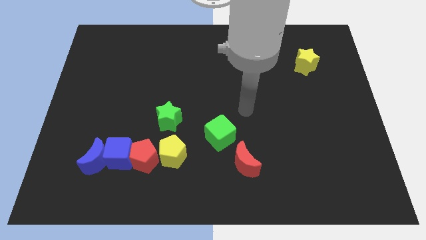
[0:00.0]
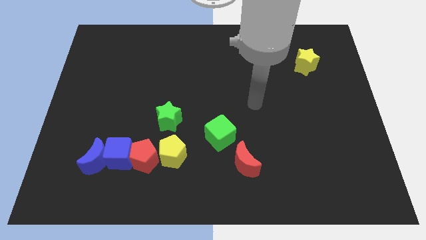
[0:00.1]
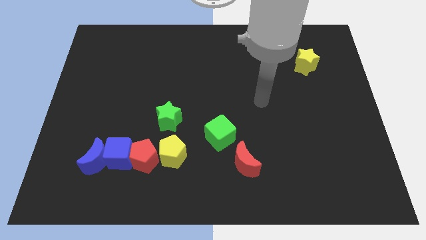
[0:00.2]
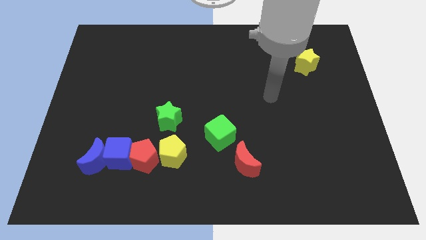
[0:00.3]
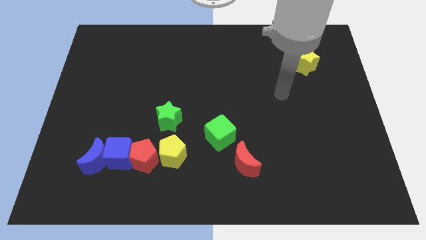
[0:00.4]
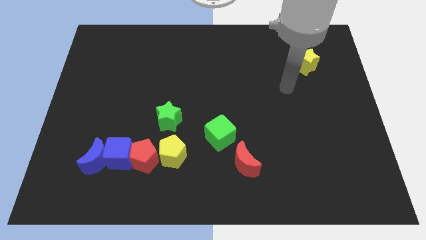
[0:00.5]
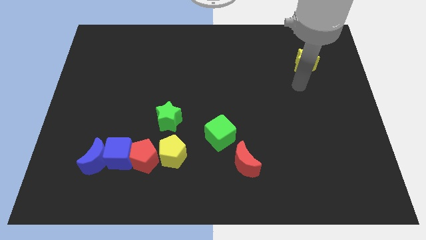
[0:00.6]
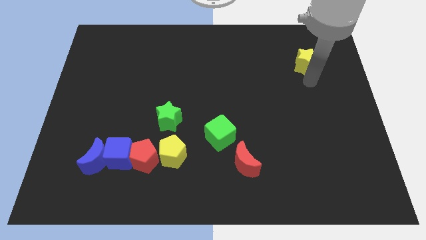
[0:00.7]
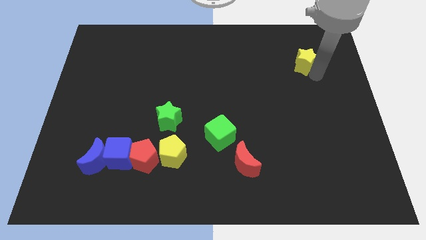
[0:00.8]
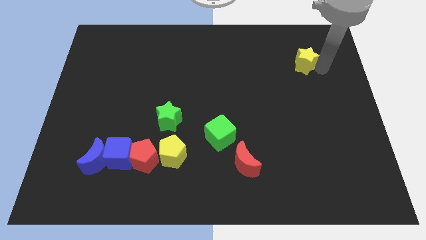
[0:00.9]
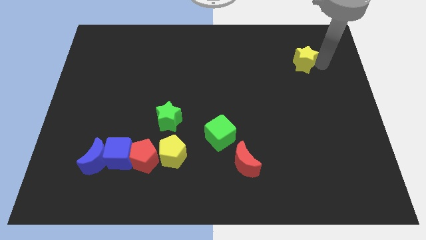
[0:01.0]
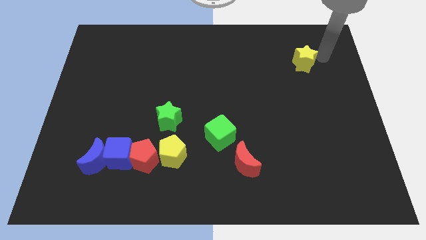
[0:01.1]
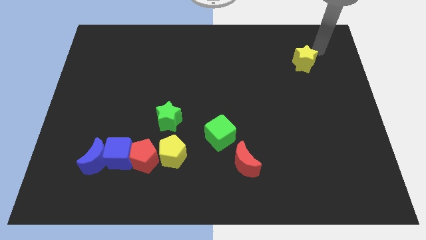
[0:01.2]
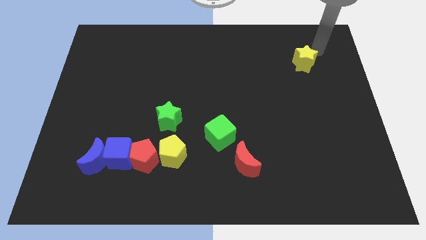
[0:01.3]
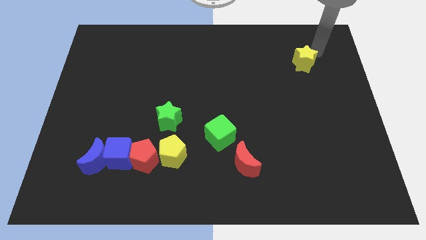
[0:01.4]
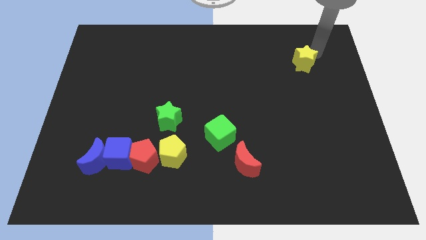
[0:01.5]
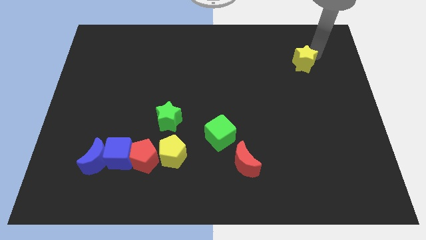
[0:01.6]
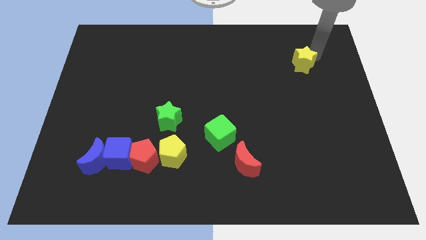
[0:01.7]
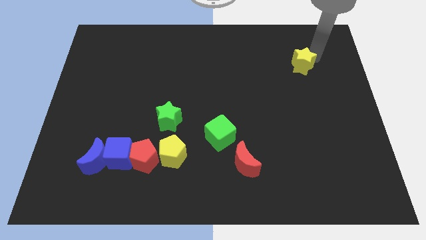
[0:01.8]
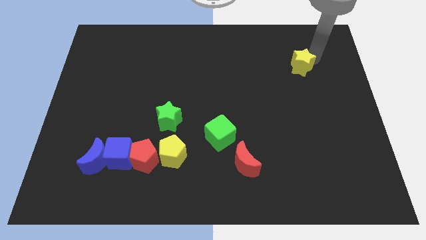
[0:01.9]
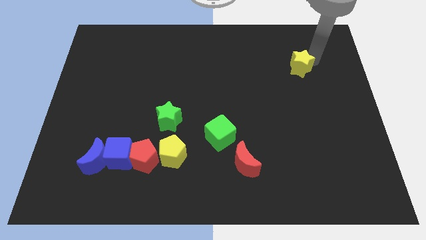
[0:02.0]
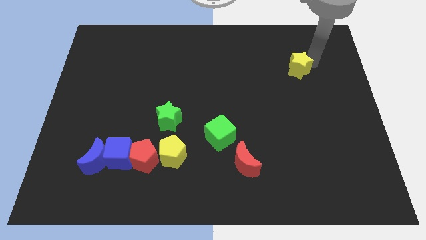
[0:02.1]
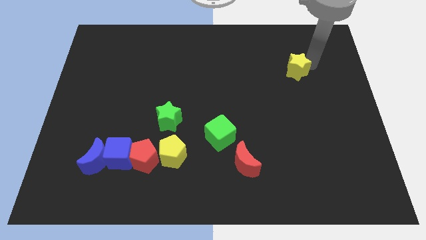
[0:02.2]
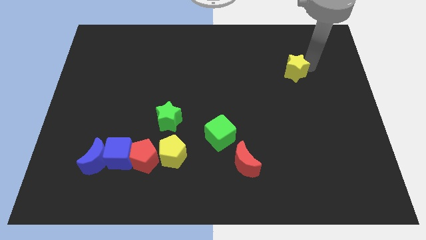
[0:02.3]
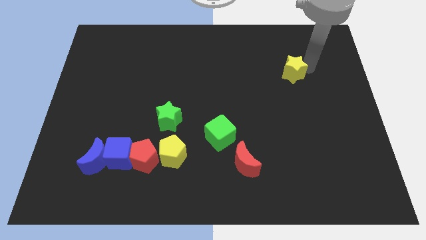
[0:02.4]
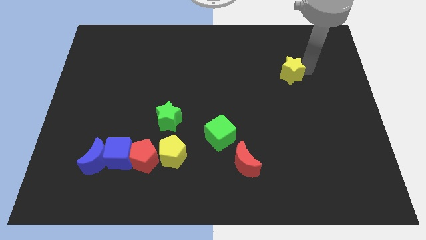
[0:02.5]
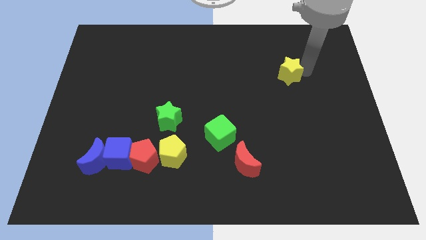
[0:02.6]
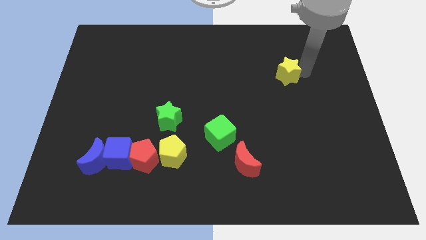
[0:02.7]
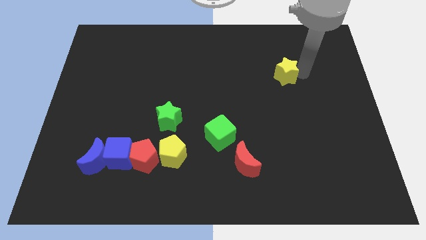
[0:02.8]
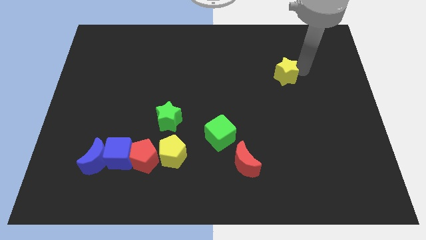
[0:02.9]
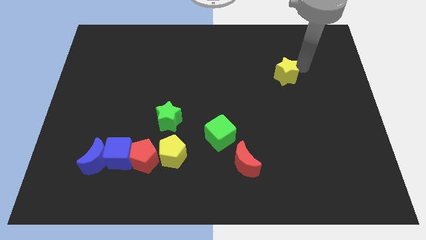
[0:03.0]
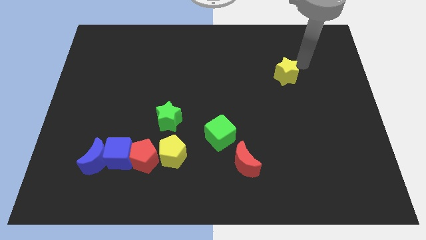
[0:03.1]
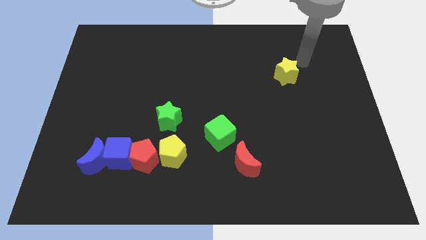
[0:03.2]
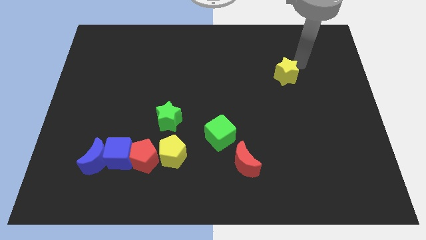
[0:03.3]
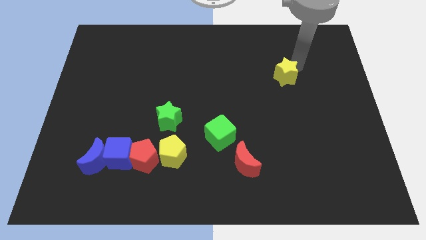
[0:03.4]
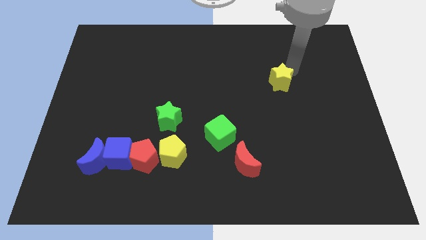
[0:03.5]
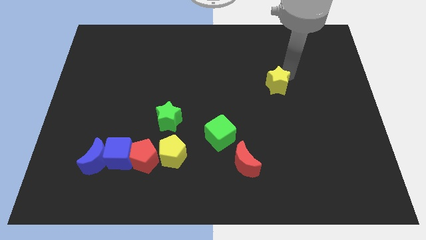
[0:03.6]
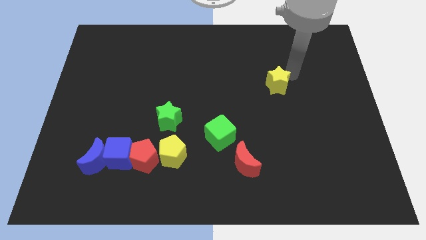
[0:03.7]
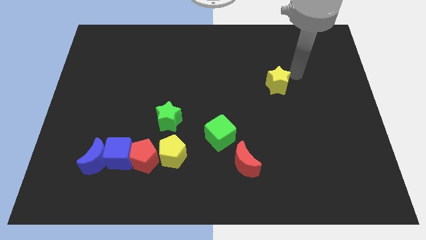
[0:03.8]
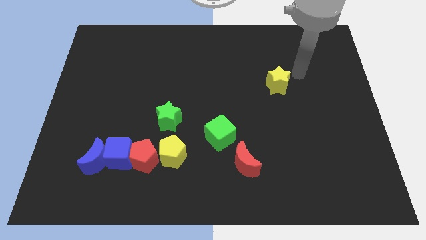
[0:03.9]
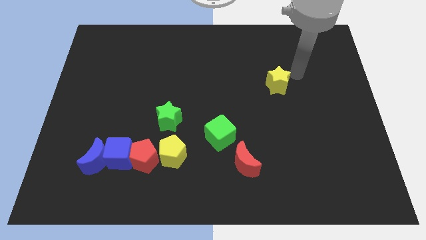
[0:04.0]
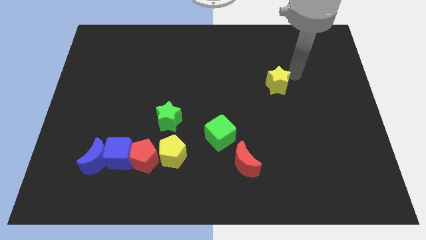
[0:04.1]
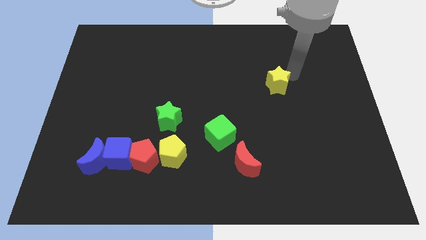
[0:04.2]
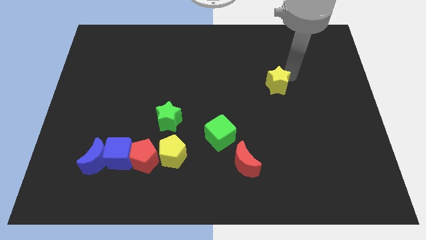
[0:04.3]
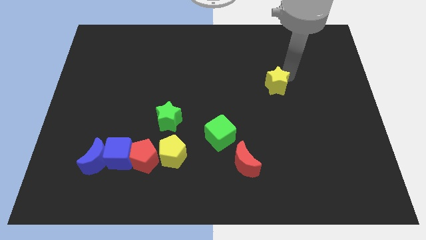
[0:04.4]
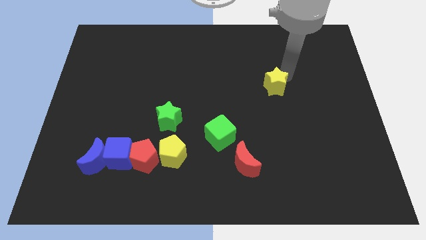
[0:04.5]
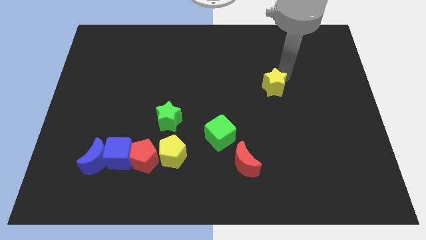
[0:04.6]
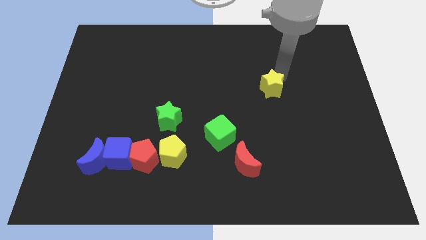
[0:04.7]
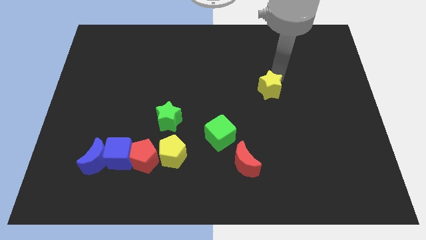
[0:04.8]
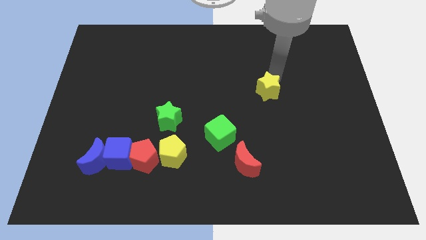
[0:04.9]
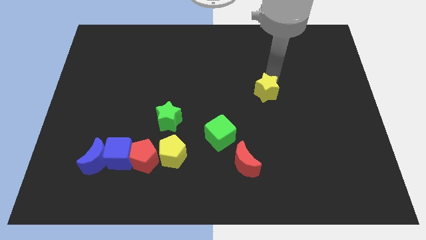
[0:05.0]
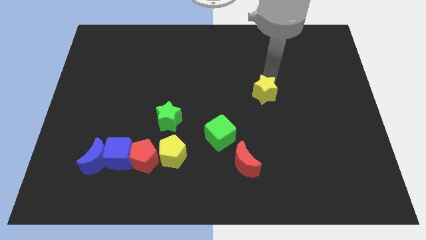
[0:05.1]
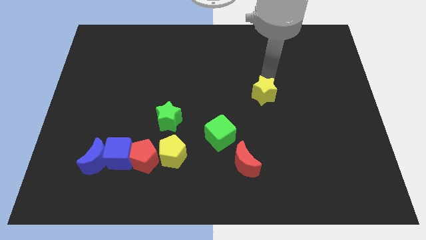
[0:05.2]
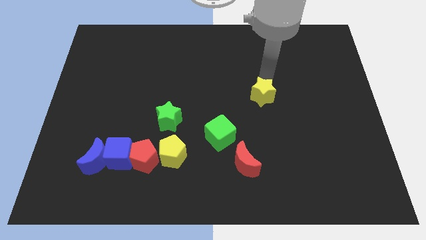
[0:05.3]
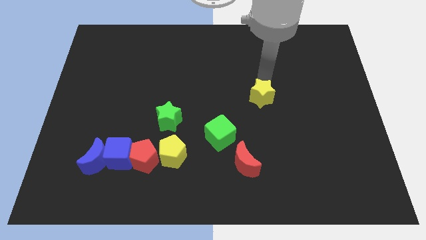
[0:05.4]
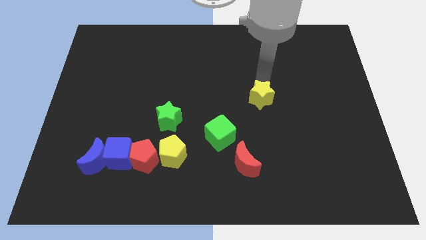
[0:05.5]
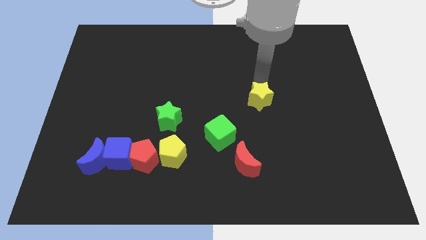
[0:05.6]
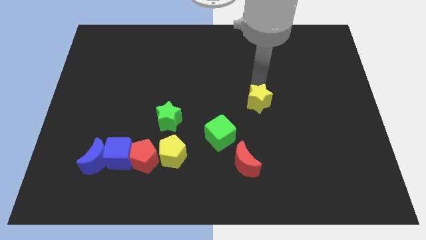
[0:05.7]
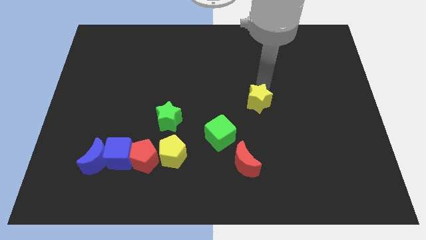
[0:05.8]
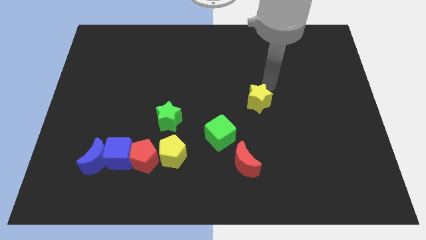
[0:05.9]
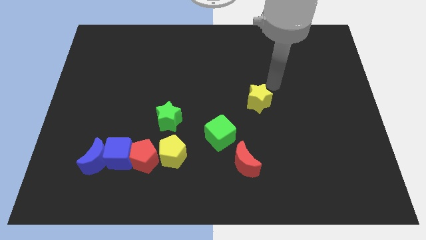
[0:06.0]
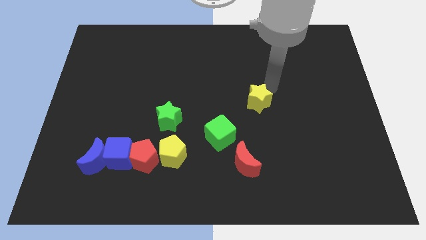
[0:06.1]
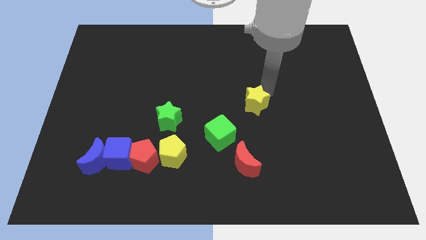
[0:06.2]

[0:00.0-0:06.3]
move the yellow star to the top right of the green cube

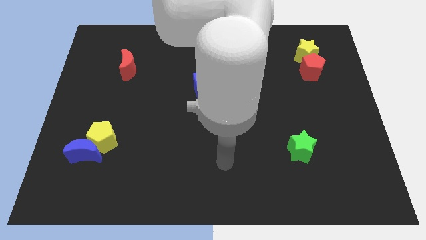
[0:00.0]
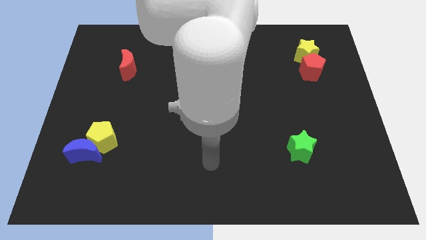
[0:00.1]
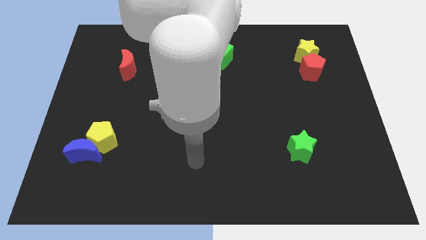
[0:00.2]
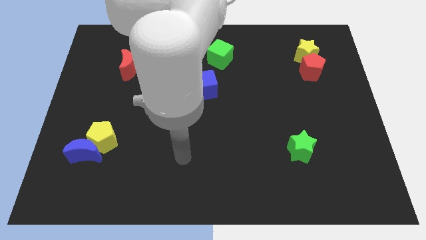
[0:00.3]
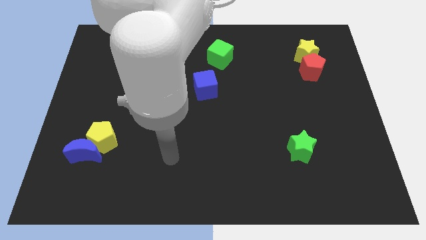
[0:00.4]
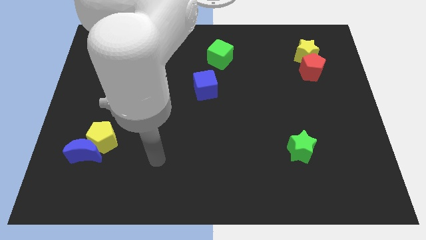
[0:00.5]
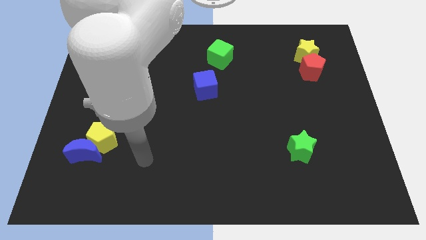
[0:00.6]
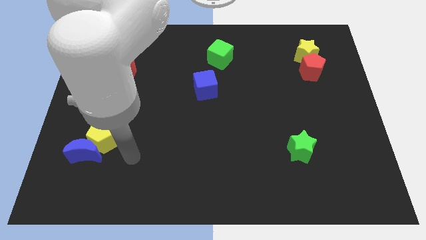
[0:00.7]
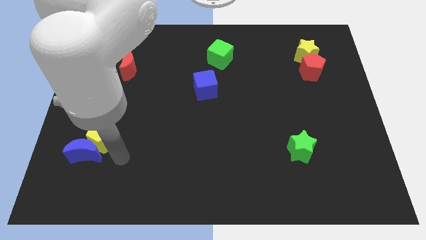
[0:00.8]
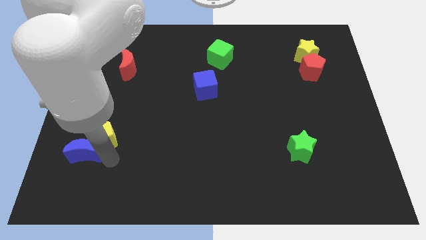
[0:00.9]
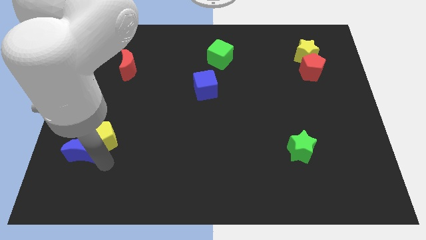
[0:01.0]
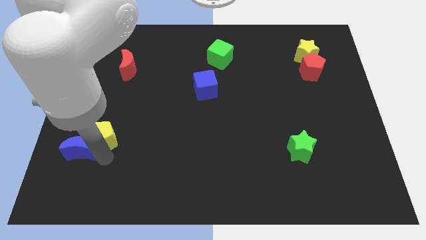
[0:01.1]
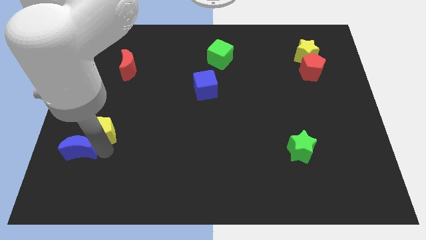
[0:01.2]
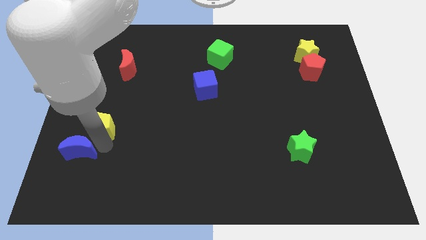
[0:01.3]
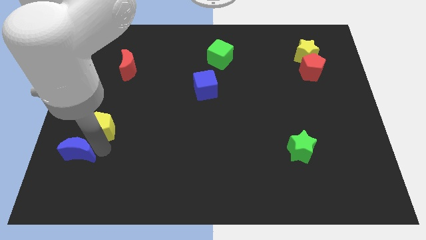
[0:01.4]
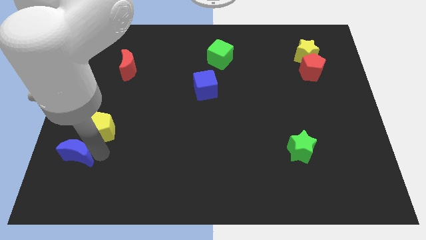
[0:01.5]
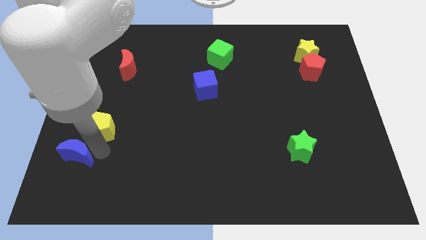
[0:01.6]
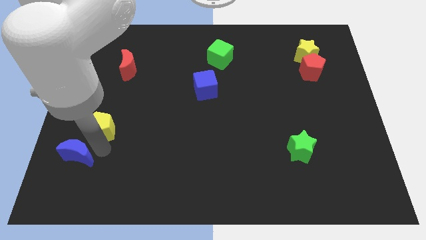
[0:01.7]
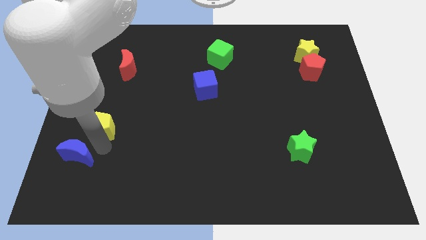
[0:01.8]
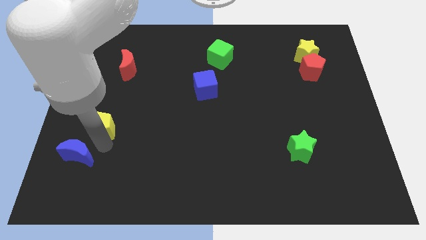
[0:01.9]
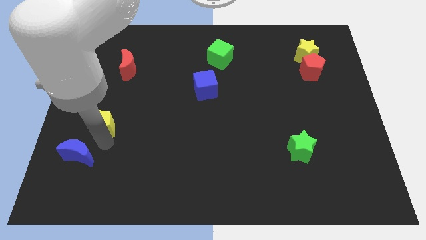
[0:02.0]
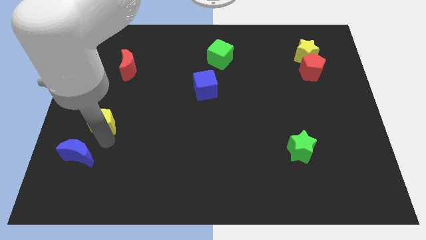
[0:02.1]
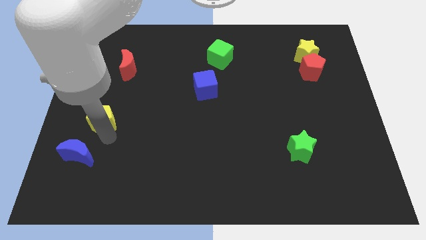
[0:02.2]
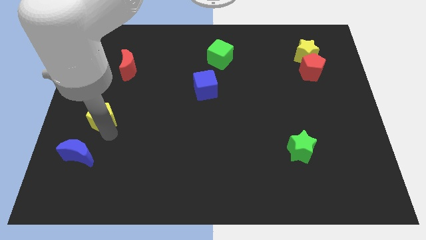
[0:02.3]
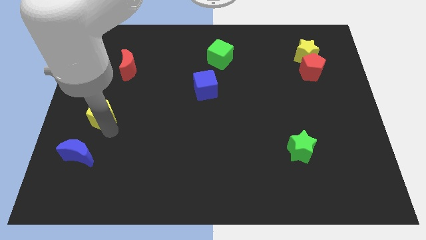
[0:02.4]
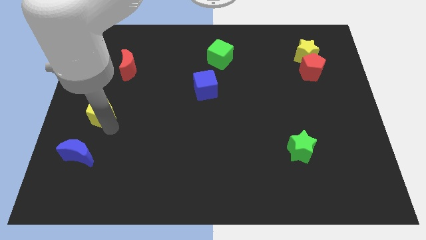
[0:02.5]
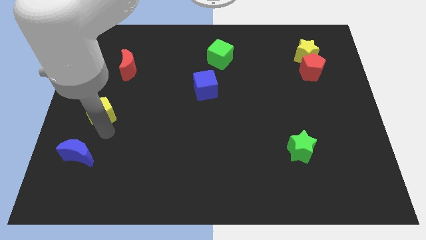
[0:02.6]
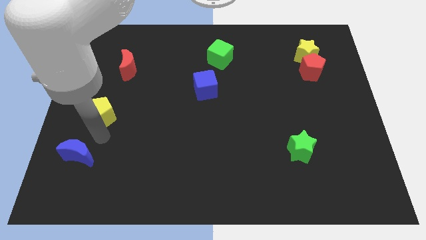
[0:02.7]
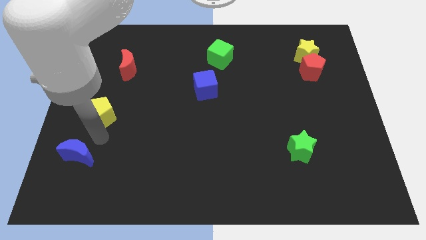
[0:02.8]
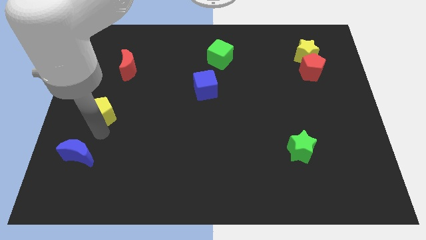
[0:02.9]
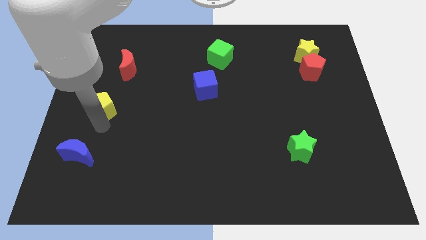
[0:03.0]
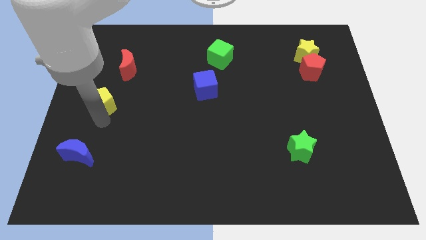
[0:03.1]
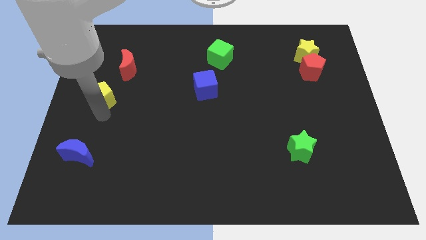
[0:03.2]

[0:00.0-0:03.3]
move the yellow pentagon to the bottom left side of the red moon
